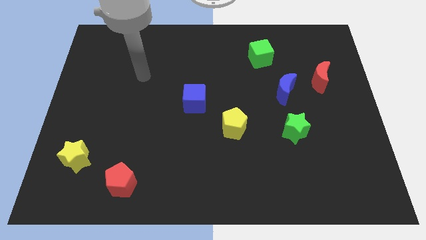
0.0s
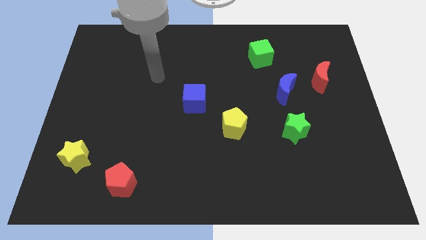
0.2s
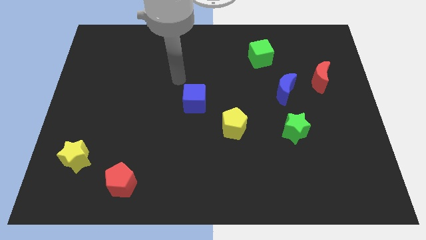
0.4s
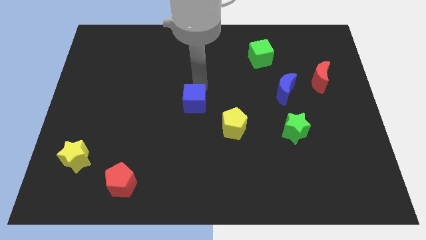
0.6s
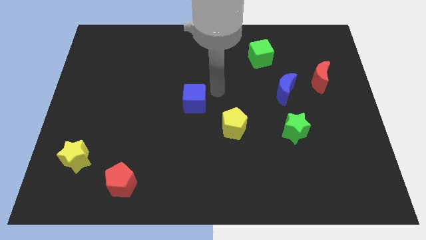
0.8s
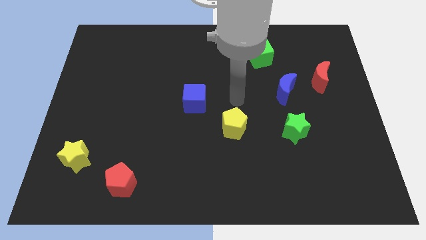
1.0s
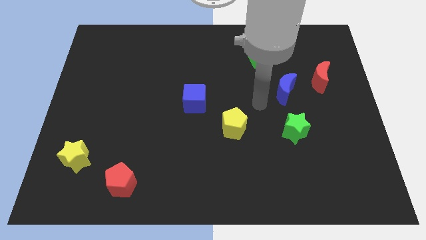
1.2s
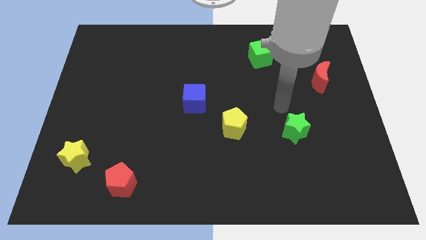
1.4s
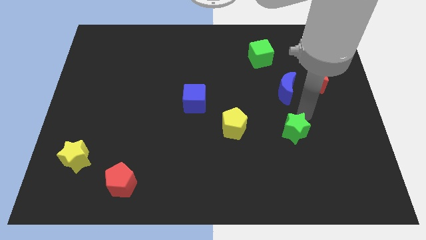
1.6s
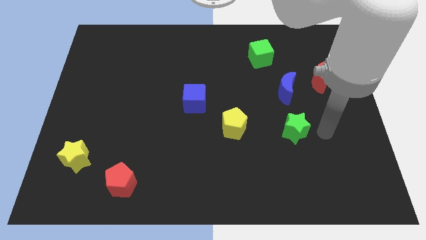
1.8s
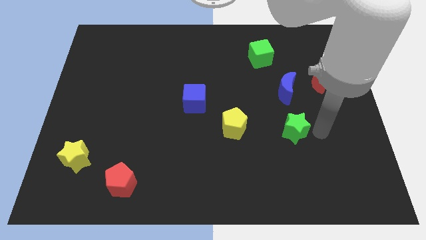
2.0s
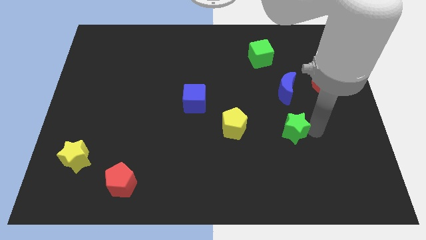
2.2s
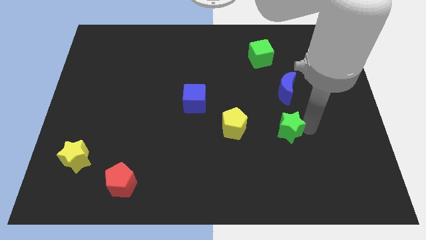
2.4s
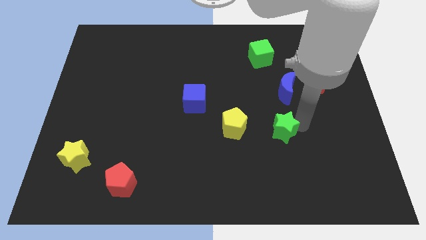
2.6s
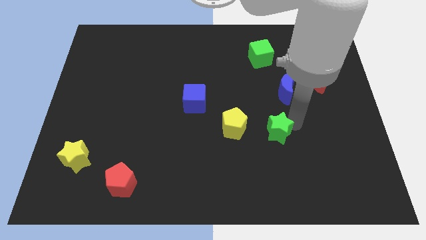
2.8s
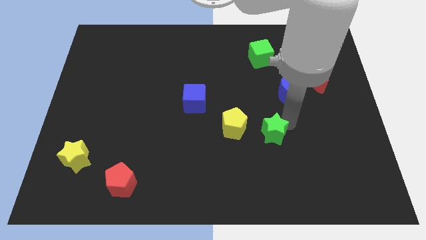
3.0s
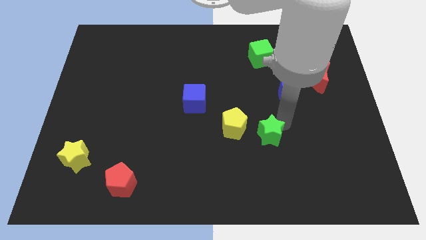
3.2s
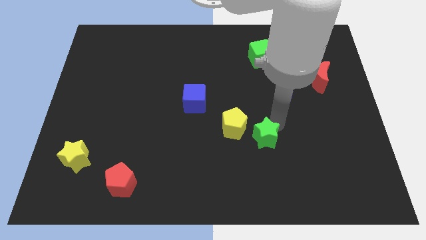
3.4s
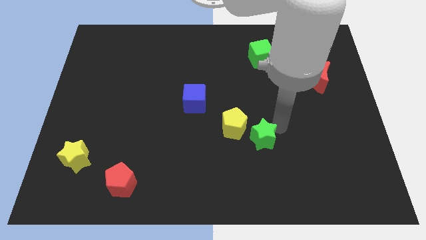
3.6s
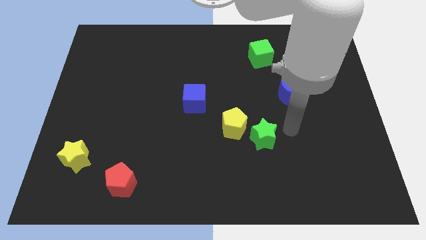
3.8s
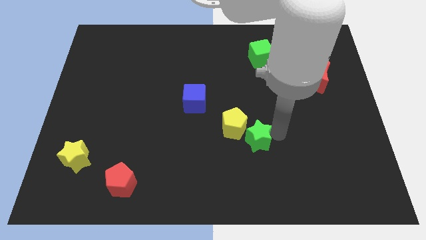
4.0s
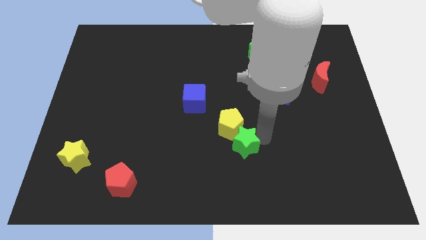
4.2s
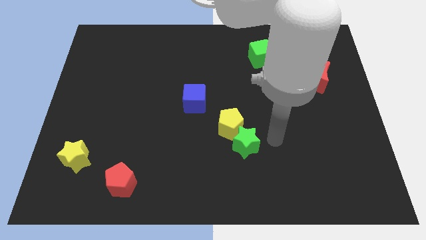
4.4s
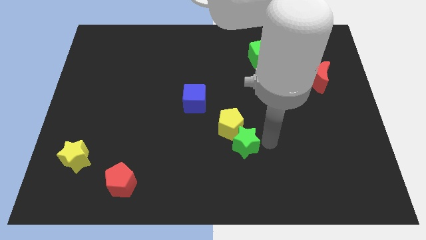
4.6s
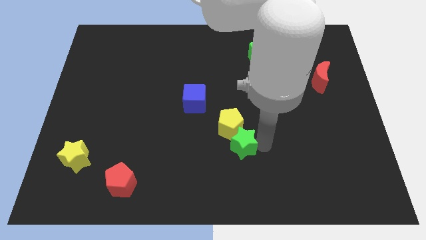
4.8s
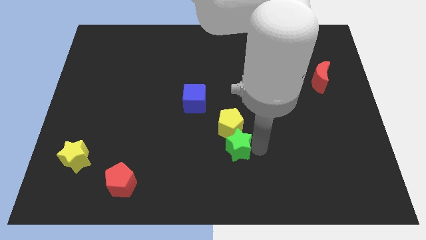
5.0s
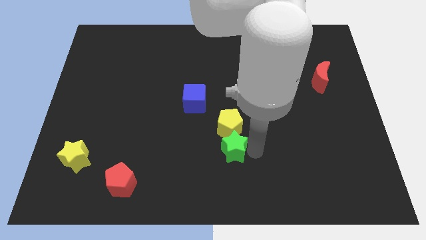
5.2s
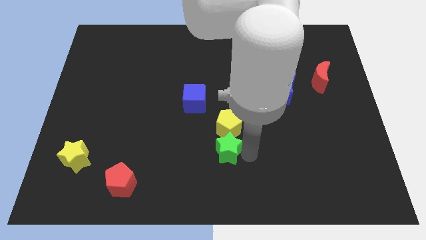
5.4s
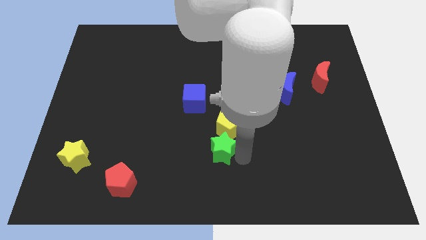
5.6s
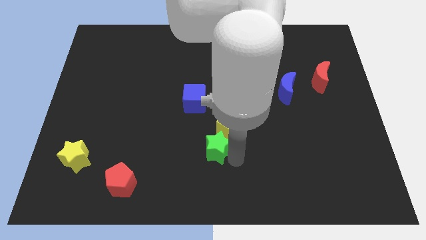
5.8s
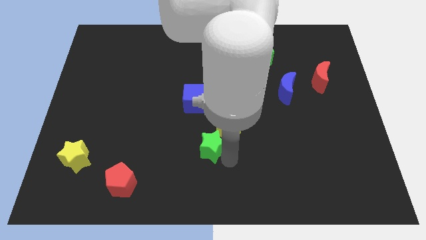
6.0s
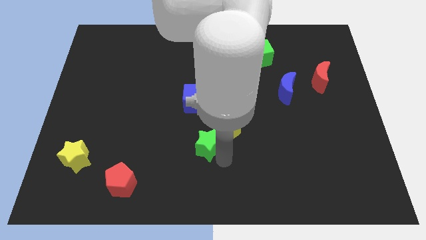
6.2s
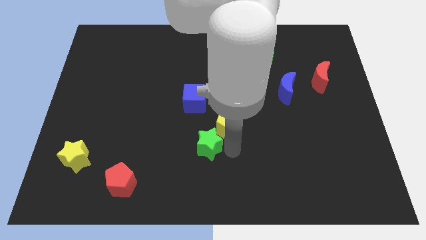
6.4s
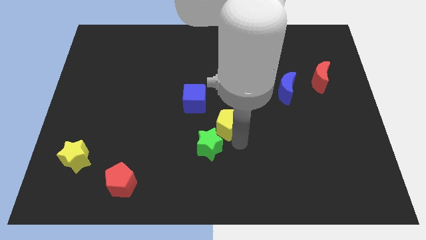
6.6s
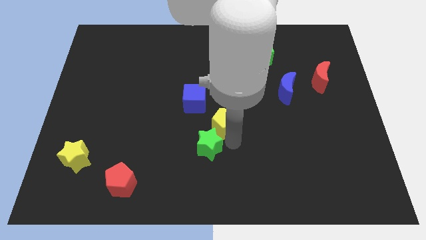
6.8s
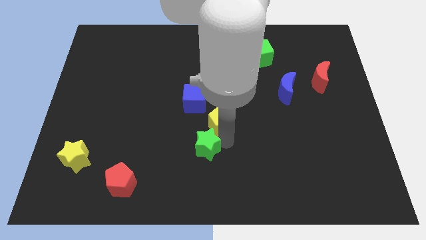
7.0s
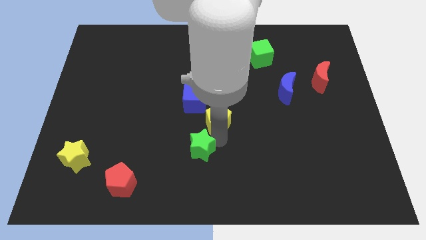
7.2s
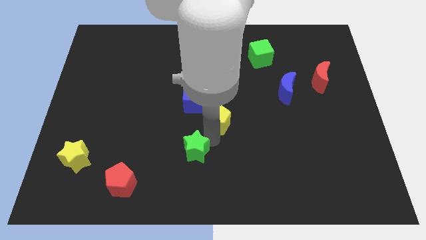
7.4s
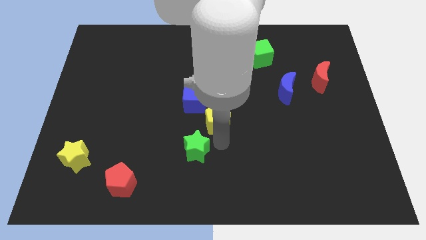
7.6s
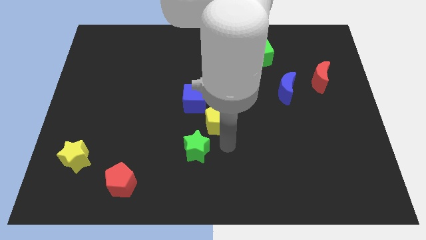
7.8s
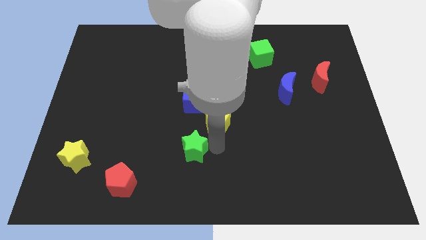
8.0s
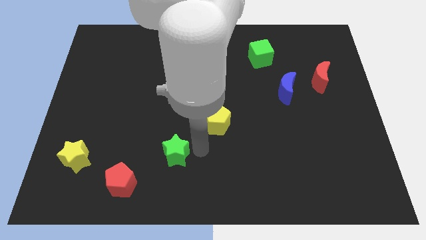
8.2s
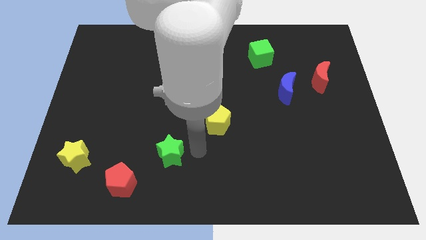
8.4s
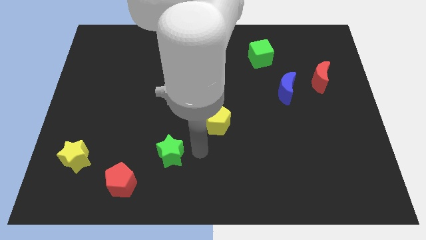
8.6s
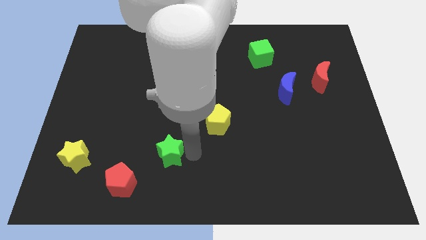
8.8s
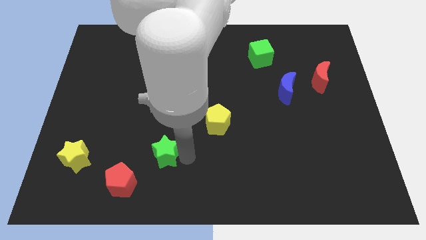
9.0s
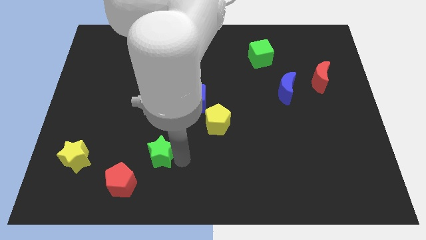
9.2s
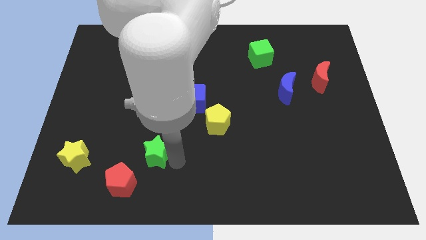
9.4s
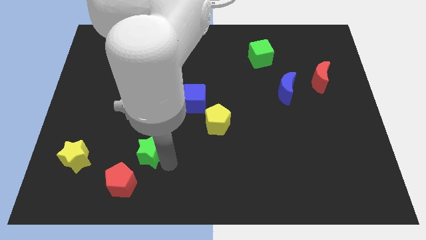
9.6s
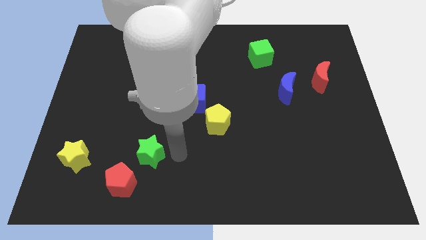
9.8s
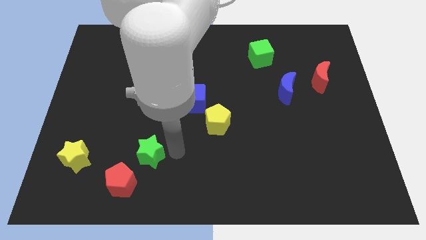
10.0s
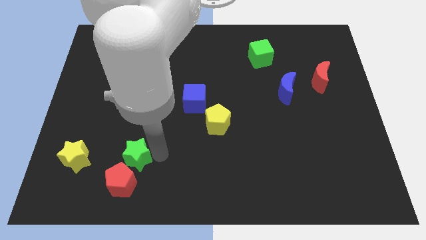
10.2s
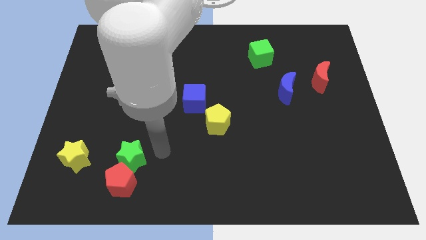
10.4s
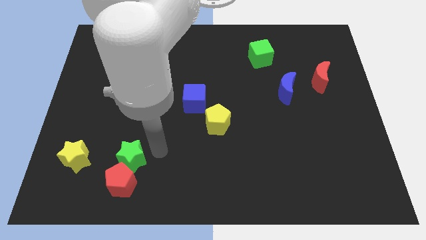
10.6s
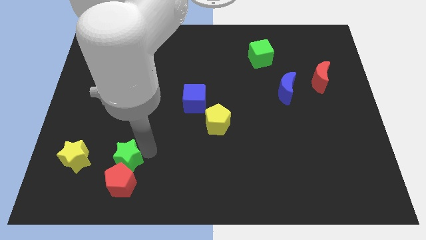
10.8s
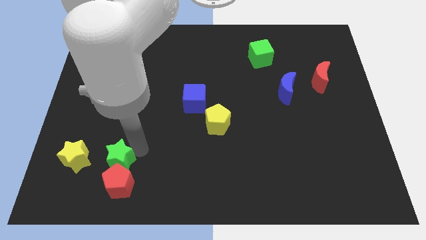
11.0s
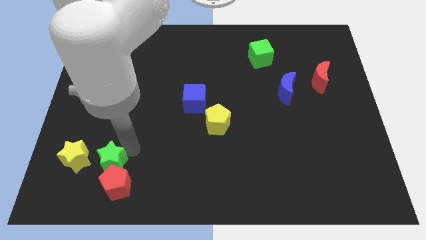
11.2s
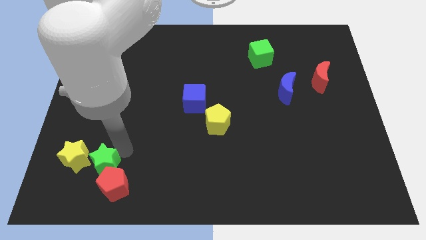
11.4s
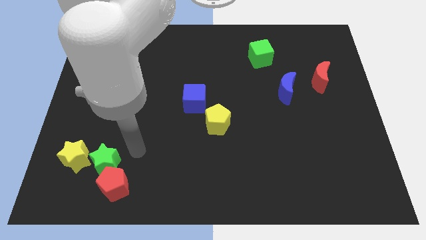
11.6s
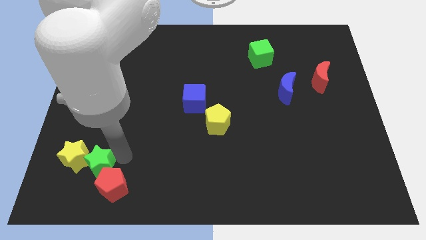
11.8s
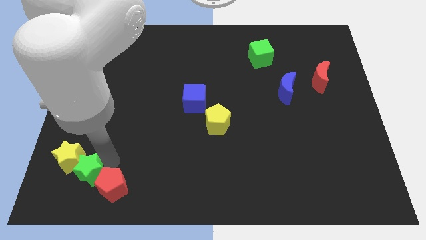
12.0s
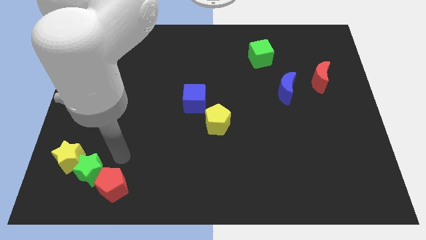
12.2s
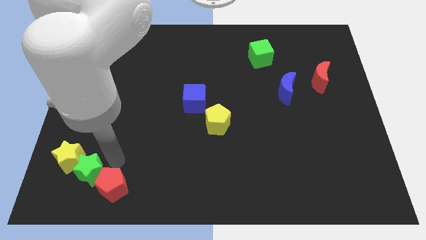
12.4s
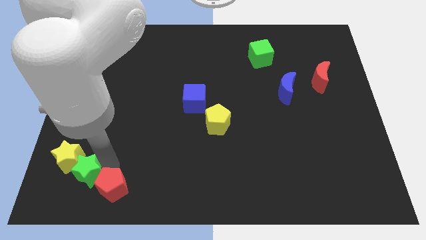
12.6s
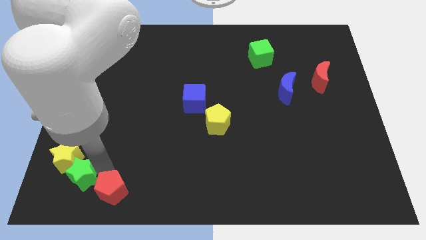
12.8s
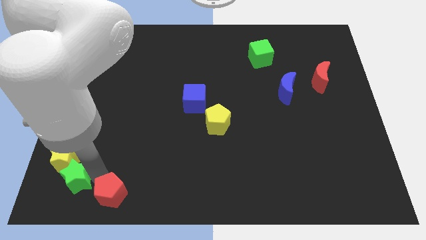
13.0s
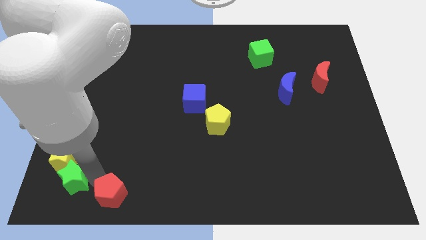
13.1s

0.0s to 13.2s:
push the green star to the bottom left corner

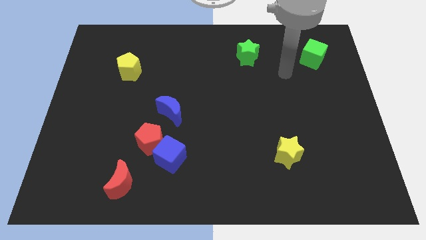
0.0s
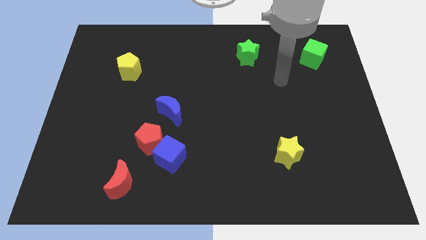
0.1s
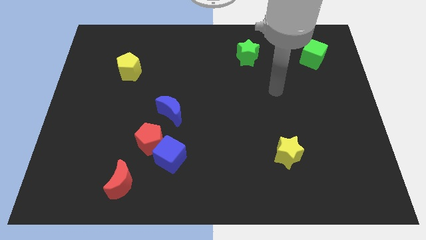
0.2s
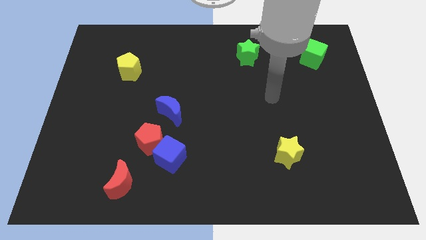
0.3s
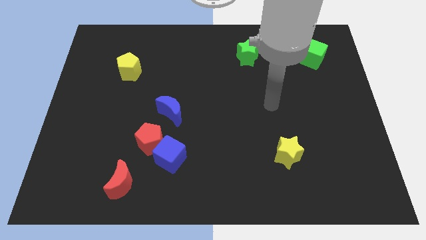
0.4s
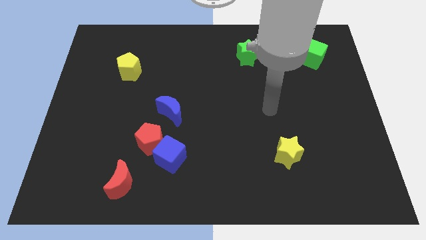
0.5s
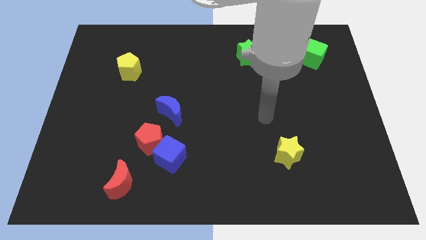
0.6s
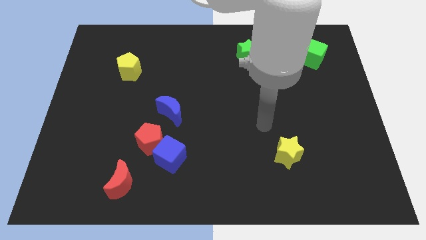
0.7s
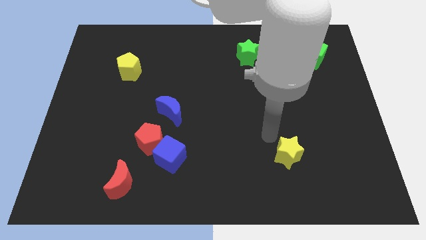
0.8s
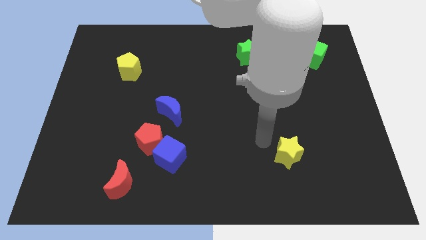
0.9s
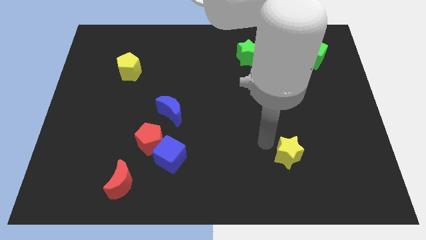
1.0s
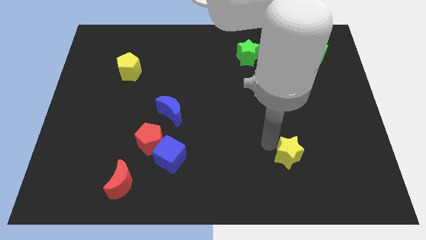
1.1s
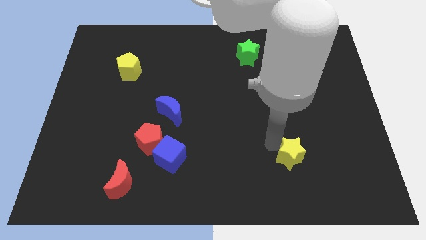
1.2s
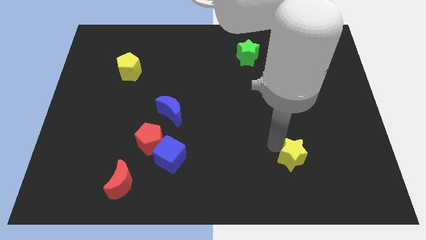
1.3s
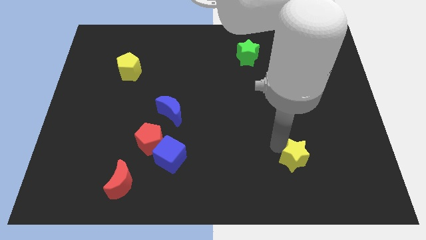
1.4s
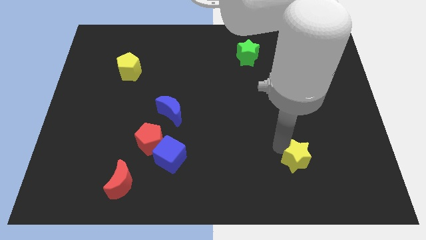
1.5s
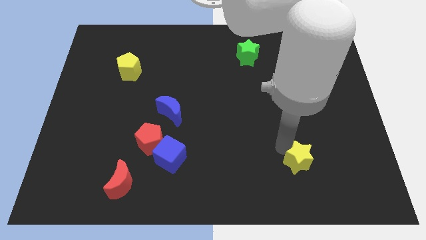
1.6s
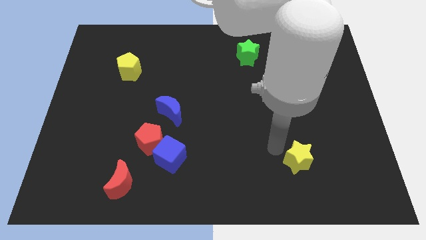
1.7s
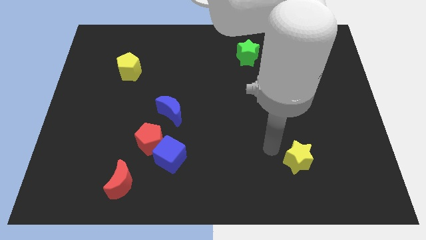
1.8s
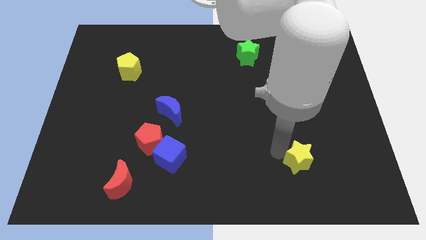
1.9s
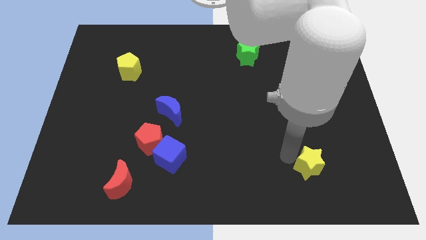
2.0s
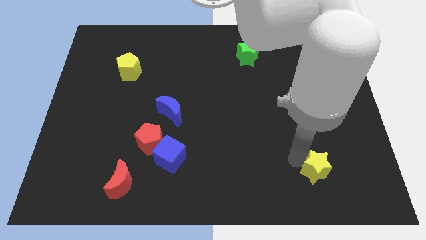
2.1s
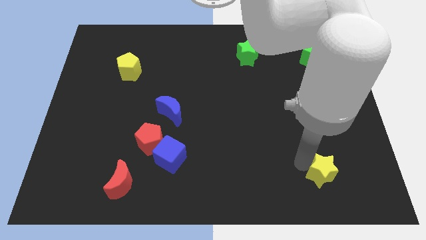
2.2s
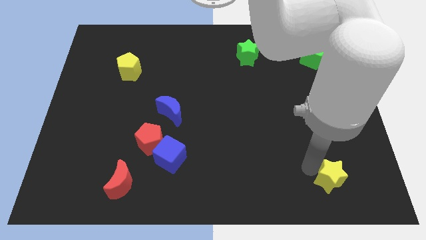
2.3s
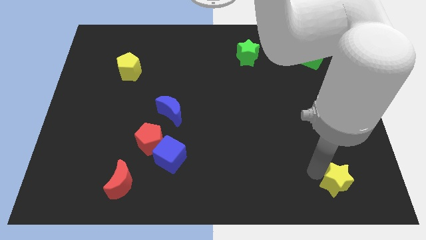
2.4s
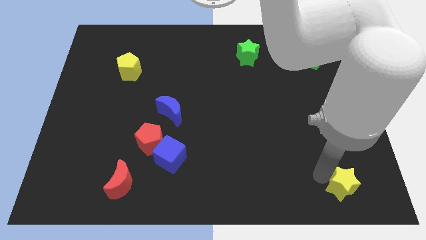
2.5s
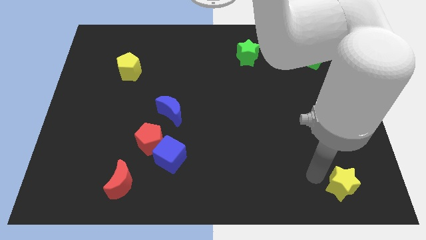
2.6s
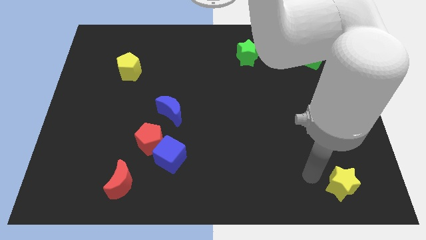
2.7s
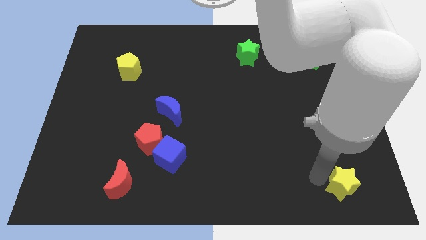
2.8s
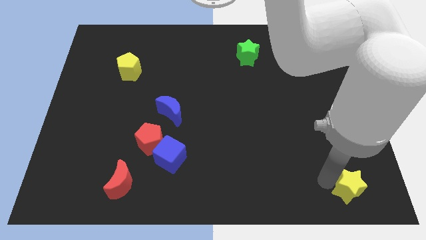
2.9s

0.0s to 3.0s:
put the yellow star to the bottom right of the board
